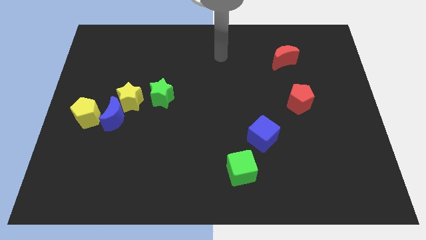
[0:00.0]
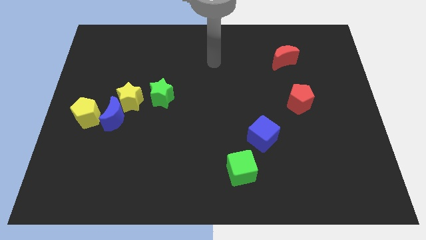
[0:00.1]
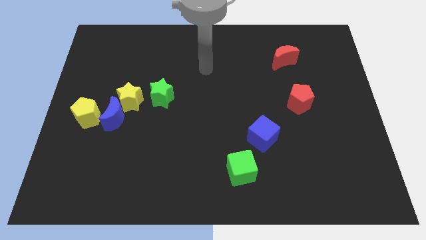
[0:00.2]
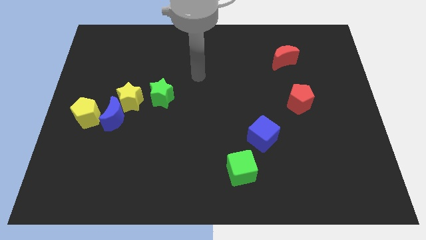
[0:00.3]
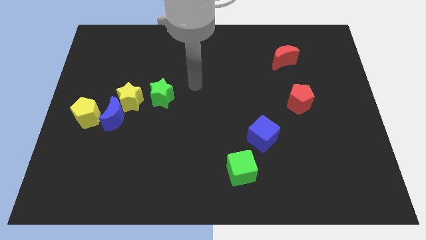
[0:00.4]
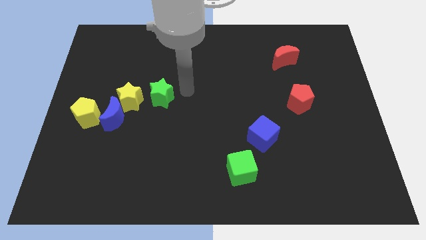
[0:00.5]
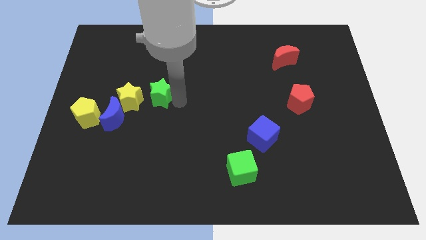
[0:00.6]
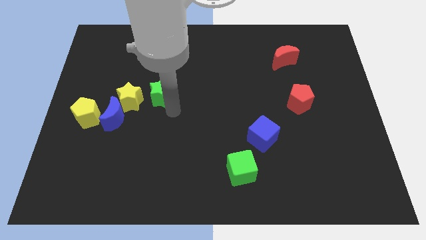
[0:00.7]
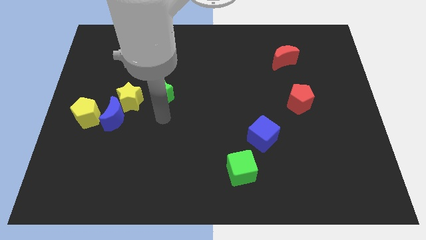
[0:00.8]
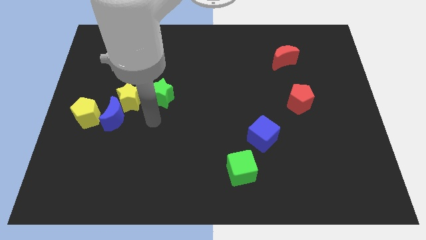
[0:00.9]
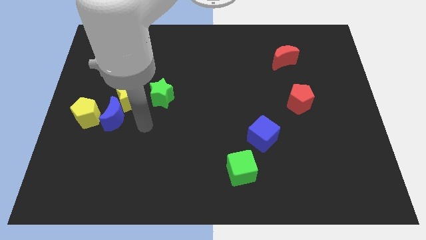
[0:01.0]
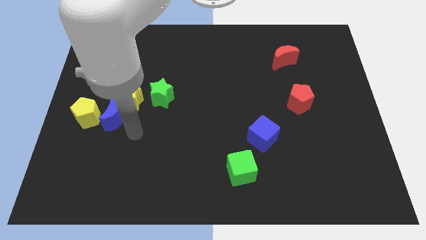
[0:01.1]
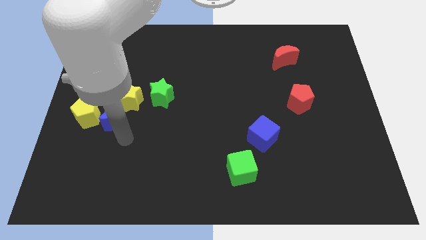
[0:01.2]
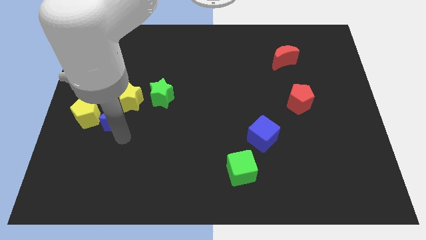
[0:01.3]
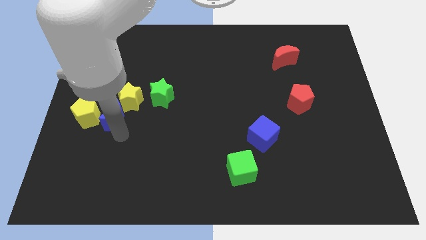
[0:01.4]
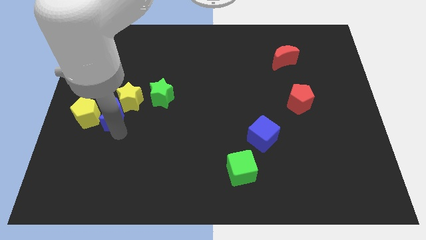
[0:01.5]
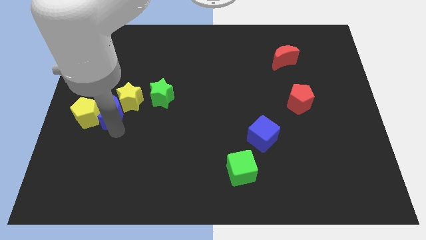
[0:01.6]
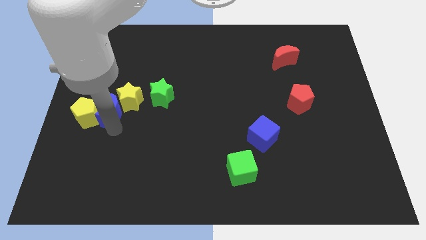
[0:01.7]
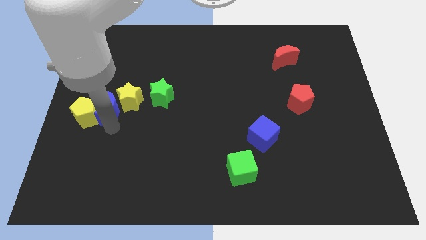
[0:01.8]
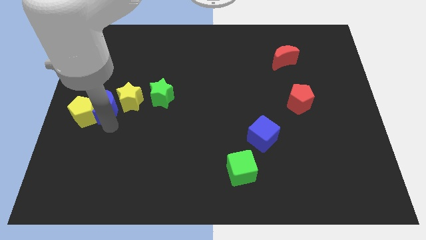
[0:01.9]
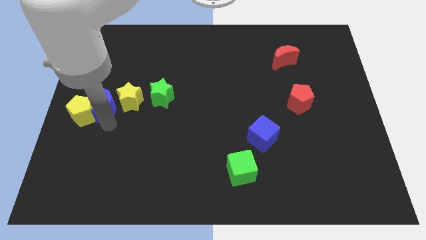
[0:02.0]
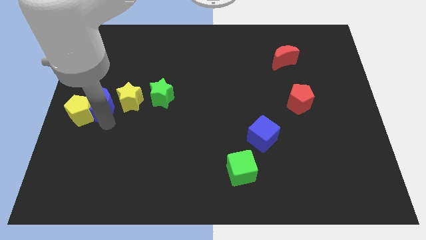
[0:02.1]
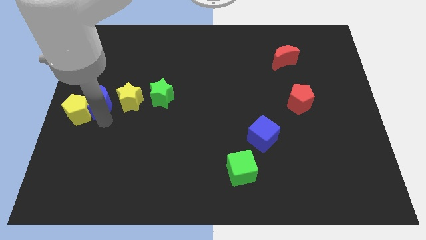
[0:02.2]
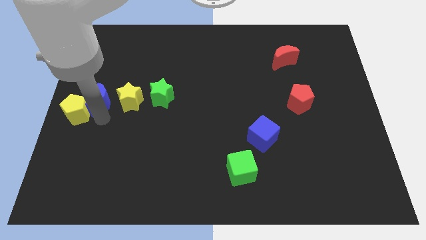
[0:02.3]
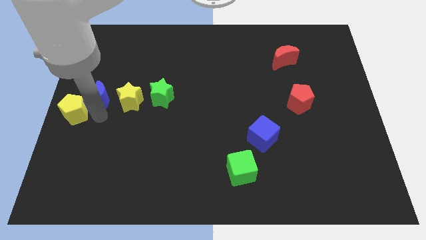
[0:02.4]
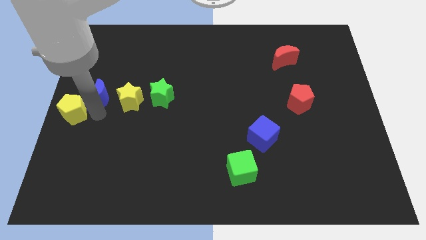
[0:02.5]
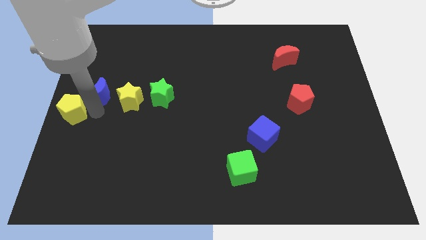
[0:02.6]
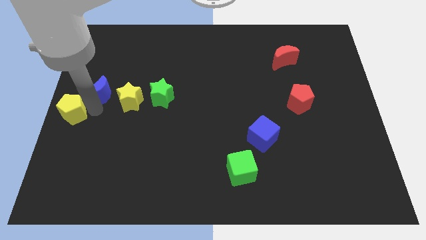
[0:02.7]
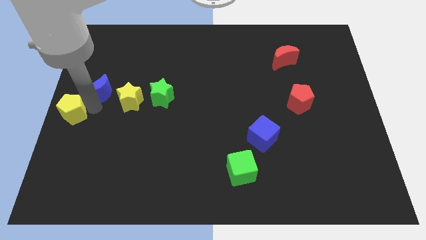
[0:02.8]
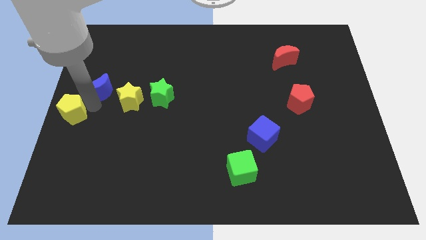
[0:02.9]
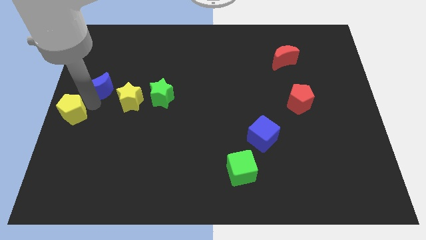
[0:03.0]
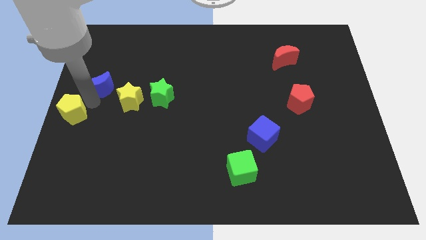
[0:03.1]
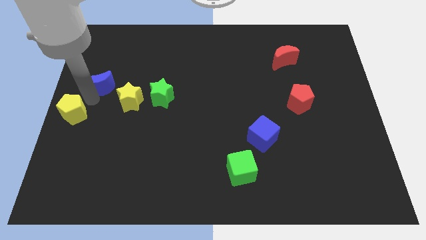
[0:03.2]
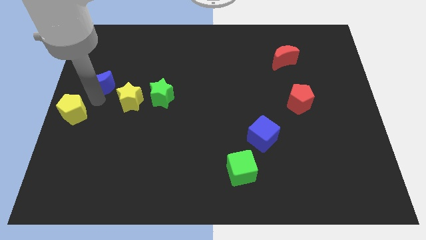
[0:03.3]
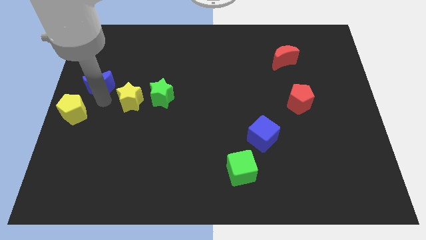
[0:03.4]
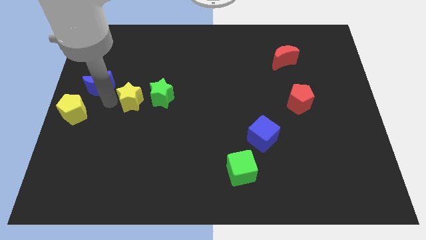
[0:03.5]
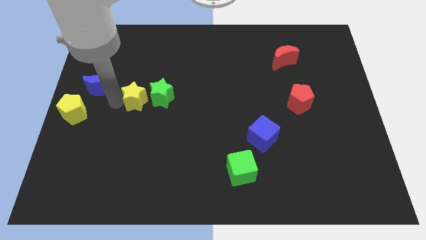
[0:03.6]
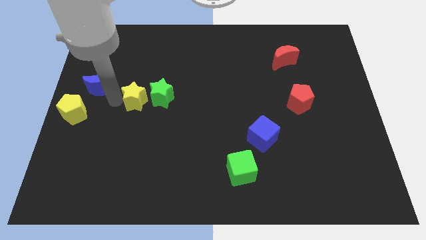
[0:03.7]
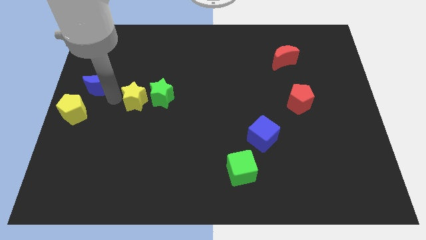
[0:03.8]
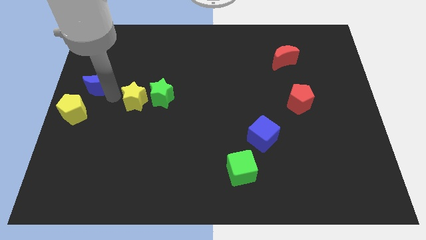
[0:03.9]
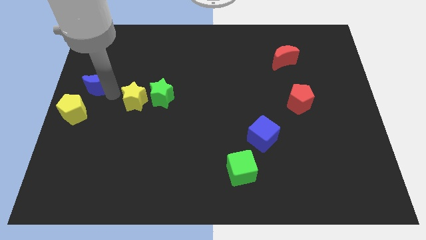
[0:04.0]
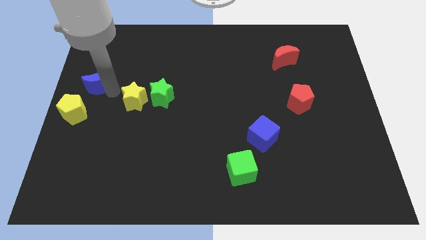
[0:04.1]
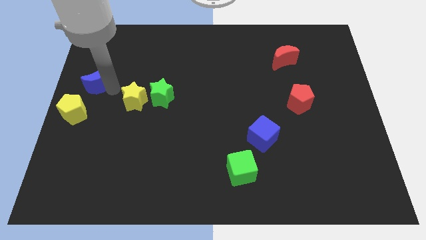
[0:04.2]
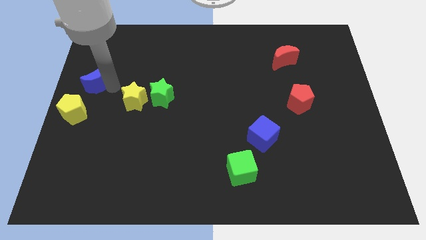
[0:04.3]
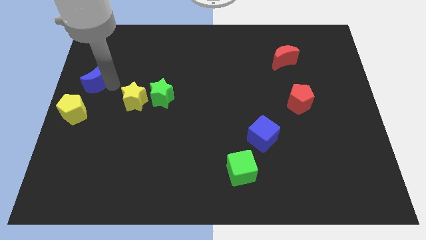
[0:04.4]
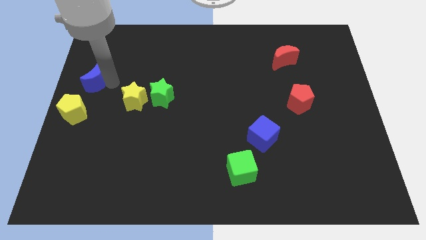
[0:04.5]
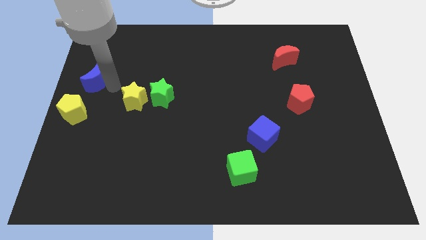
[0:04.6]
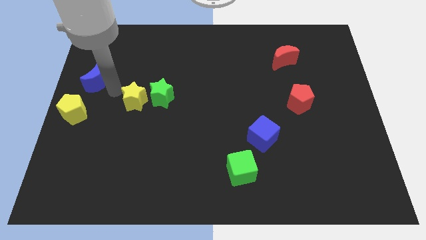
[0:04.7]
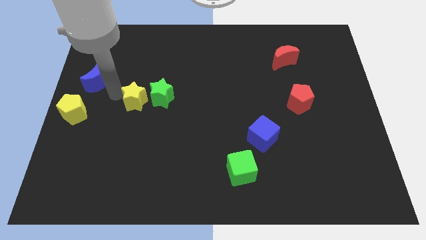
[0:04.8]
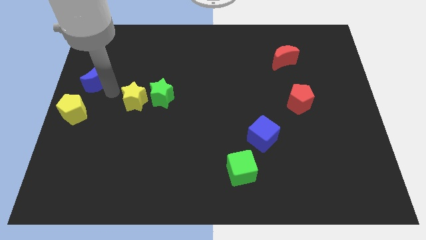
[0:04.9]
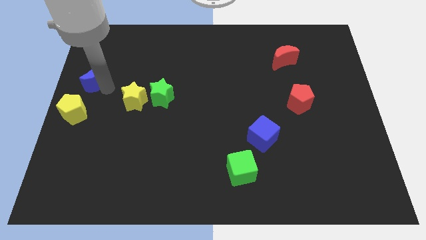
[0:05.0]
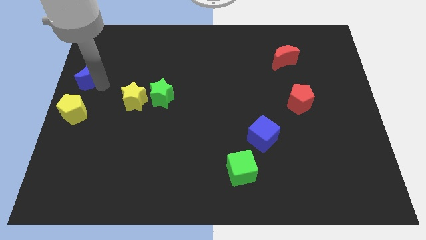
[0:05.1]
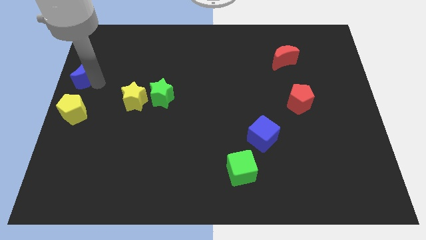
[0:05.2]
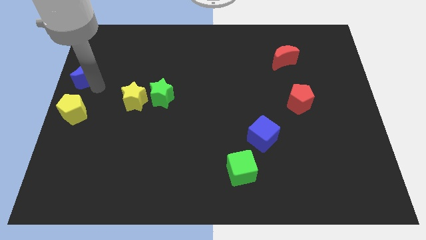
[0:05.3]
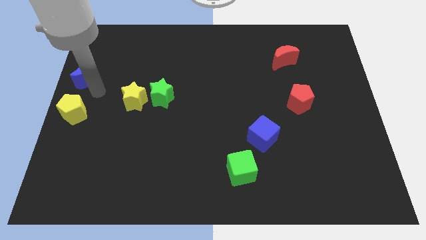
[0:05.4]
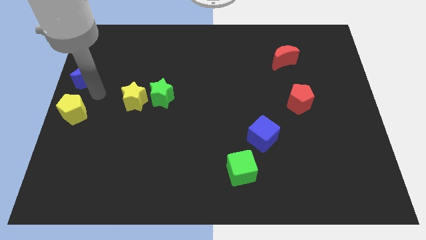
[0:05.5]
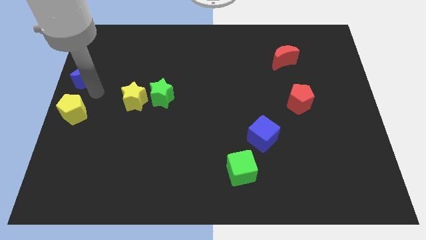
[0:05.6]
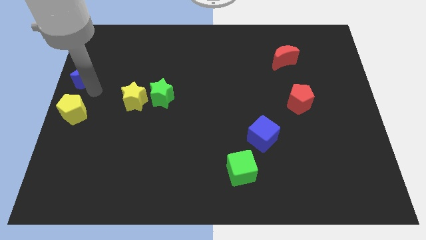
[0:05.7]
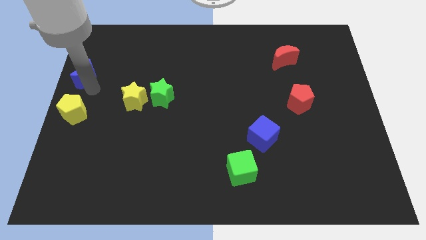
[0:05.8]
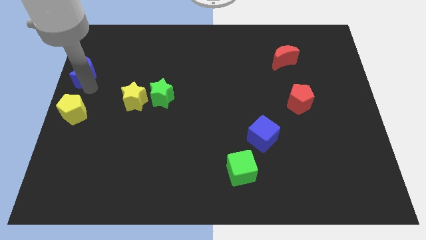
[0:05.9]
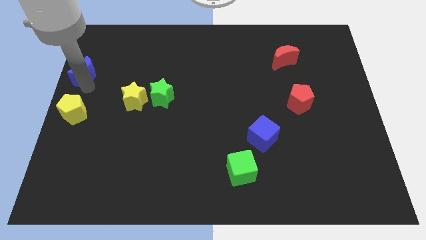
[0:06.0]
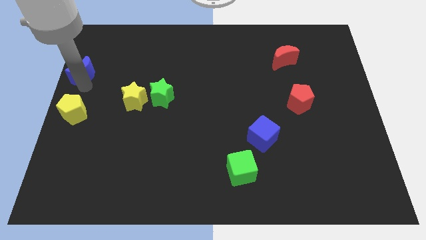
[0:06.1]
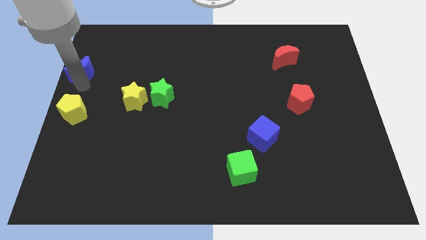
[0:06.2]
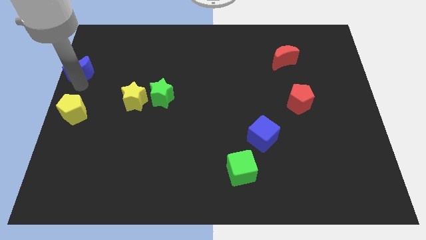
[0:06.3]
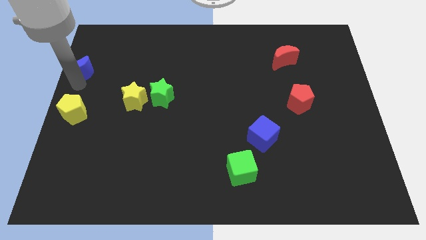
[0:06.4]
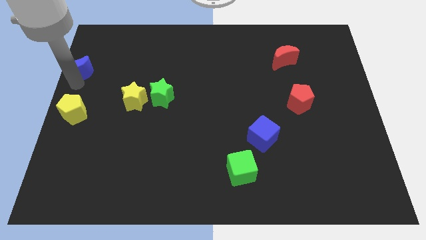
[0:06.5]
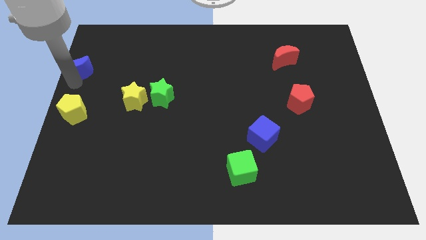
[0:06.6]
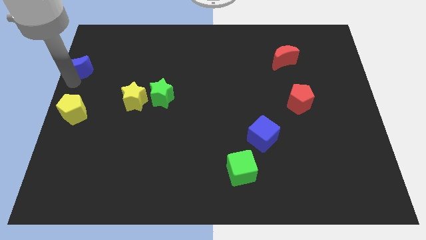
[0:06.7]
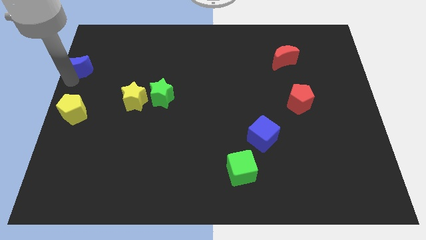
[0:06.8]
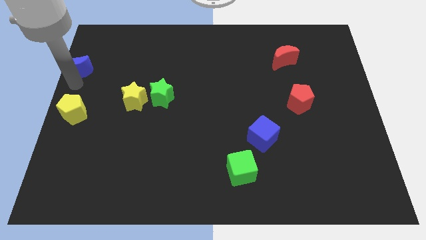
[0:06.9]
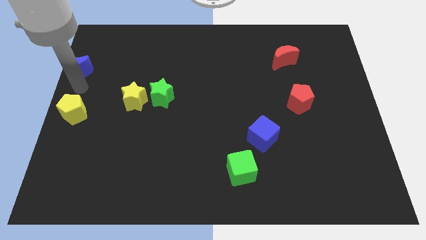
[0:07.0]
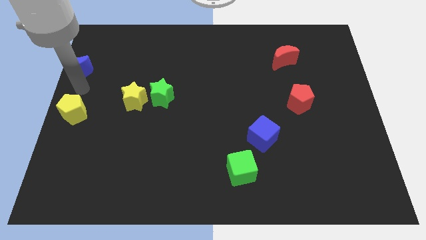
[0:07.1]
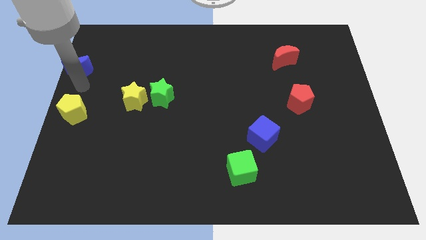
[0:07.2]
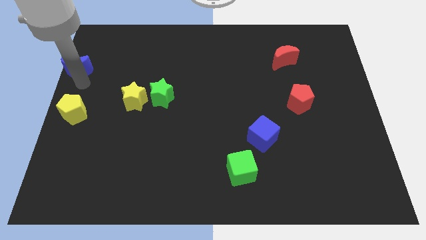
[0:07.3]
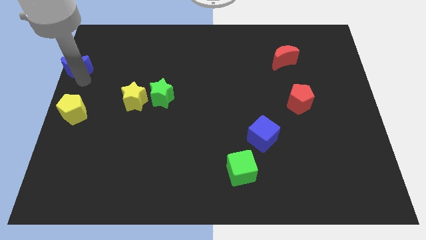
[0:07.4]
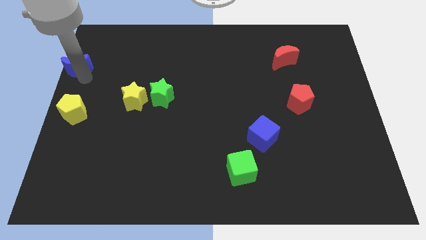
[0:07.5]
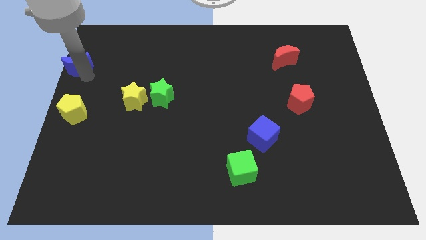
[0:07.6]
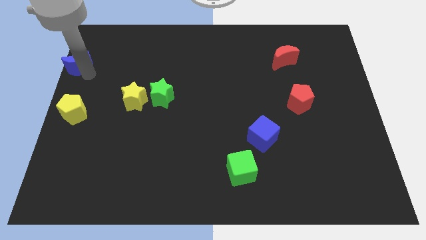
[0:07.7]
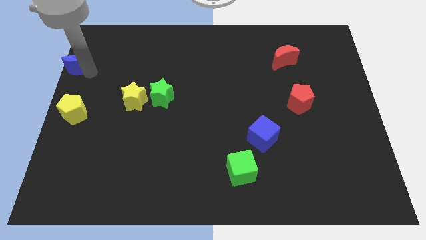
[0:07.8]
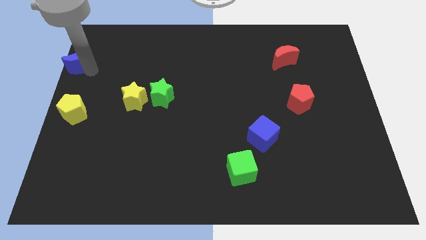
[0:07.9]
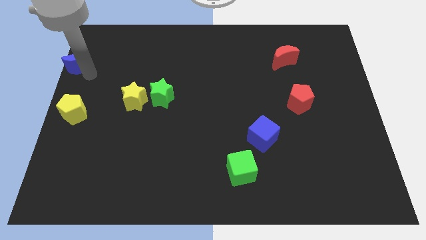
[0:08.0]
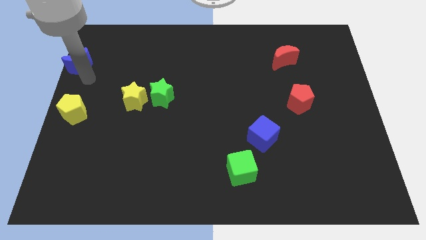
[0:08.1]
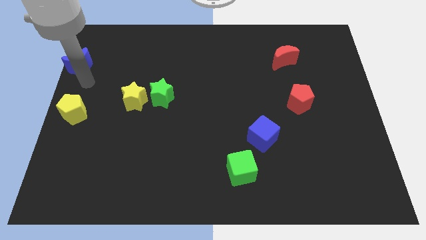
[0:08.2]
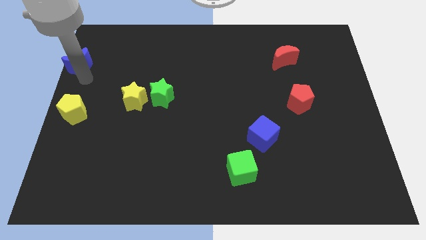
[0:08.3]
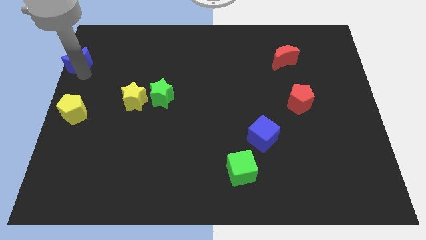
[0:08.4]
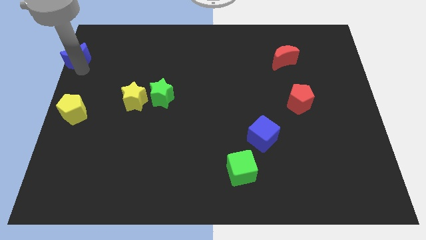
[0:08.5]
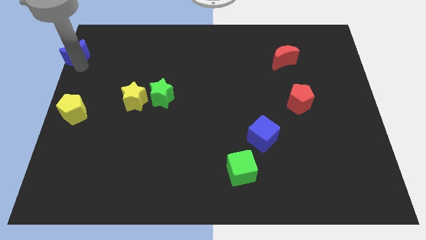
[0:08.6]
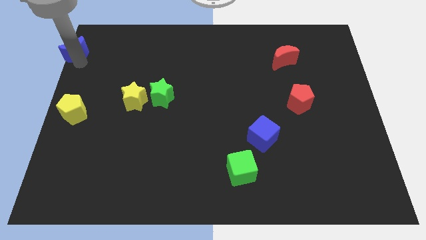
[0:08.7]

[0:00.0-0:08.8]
slide the blue moon to the top left corner
